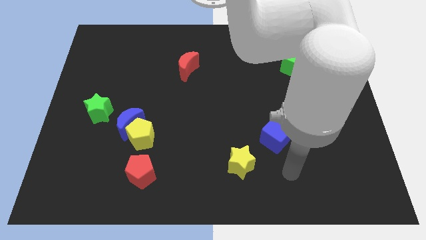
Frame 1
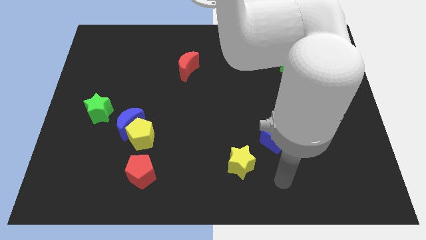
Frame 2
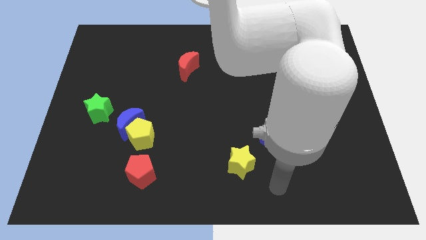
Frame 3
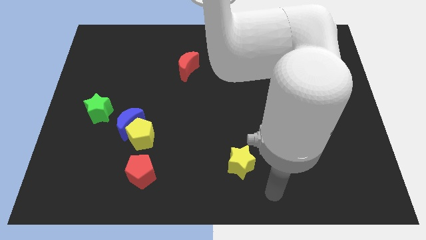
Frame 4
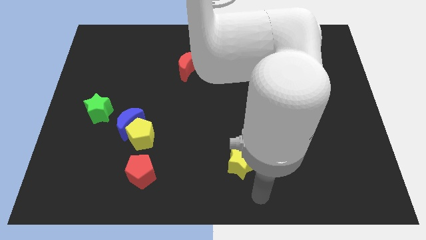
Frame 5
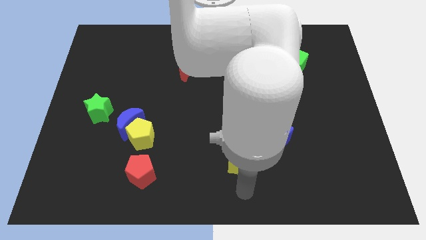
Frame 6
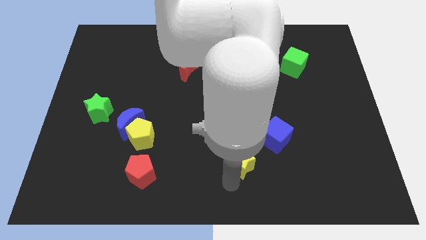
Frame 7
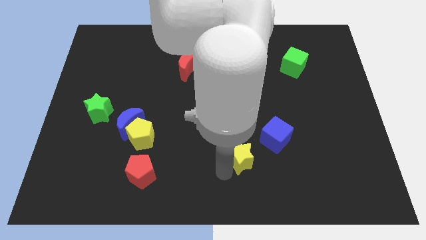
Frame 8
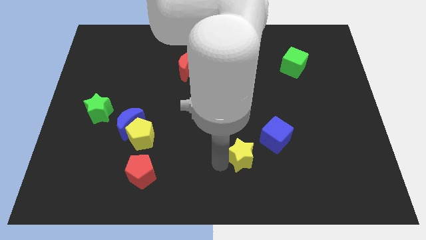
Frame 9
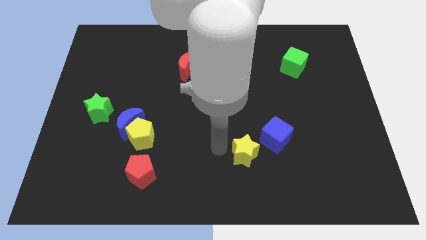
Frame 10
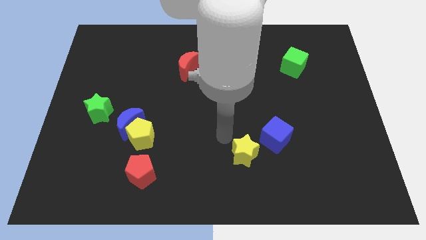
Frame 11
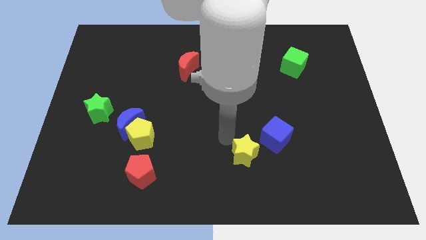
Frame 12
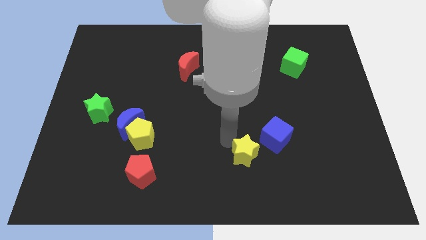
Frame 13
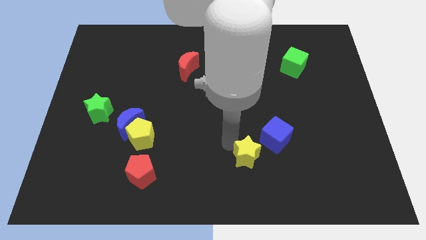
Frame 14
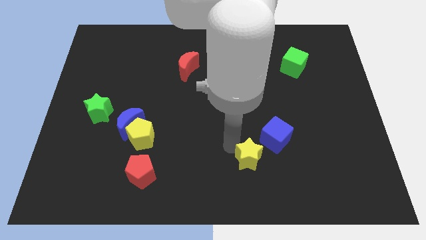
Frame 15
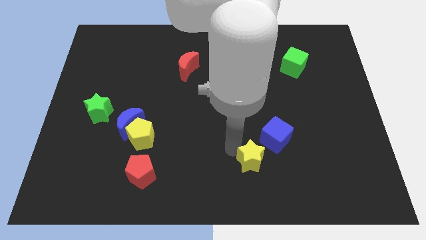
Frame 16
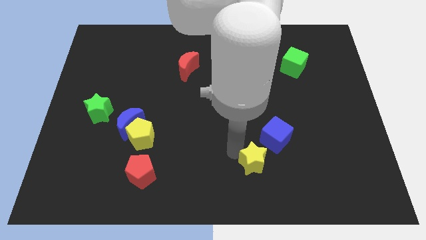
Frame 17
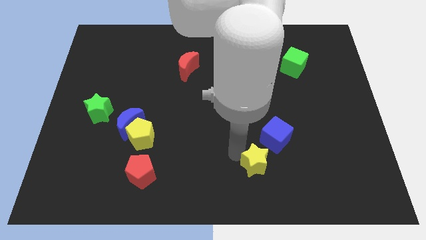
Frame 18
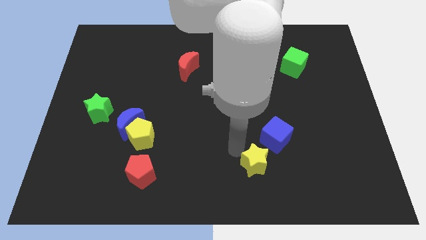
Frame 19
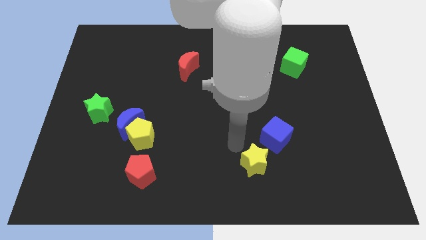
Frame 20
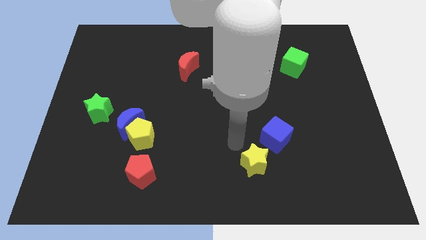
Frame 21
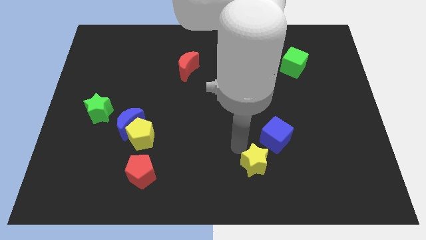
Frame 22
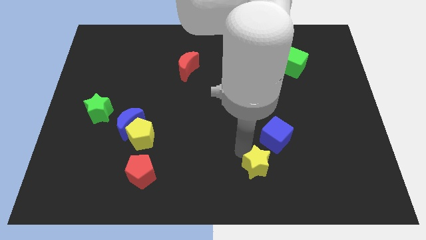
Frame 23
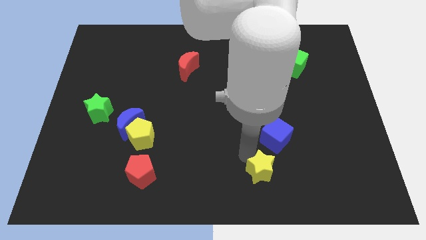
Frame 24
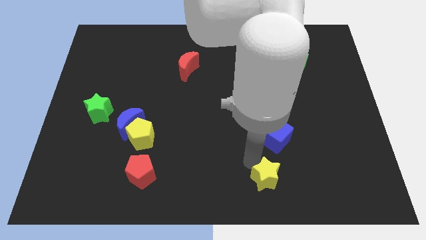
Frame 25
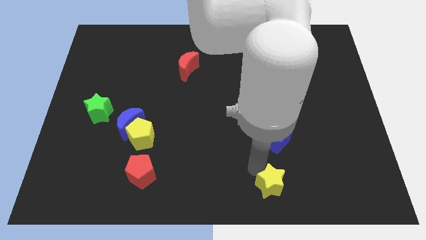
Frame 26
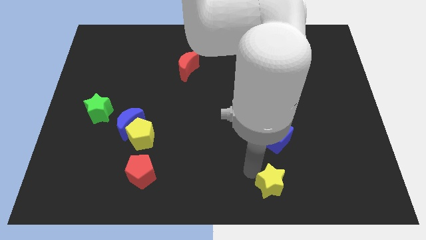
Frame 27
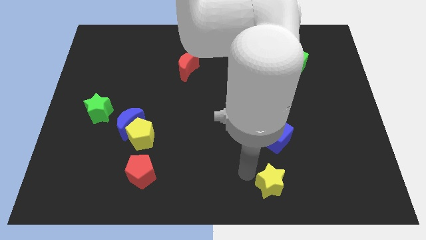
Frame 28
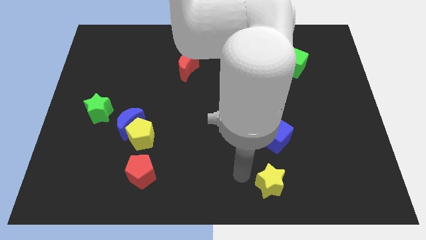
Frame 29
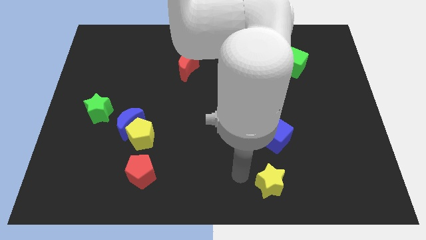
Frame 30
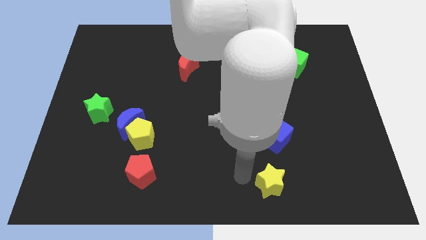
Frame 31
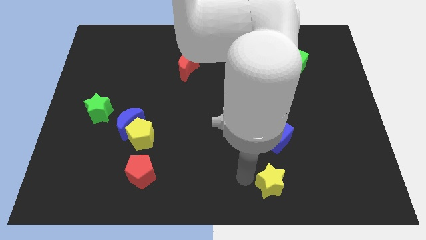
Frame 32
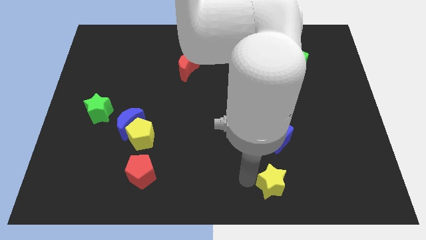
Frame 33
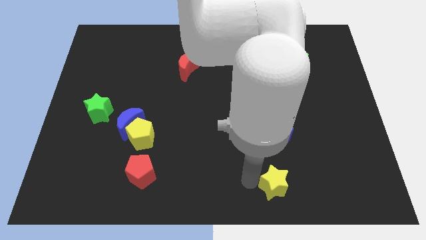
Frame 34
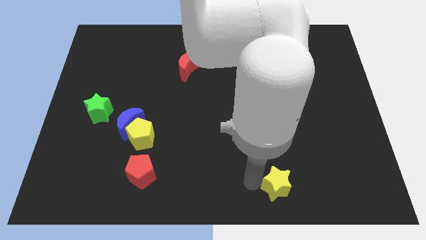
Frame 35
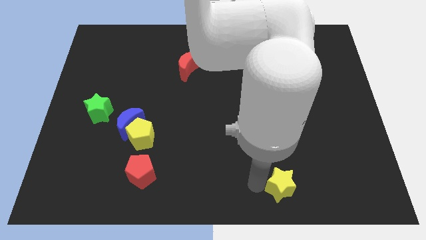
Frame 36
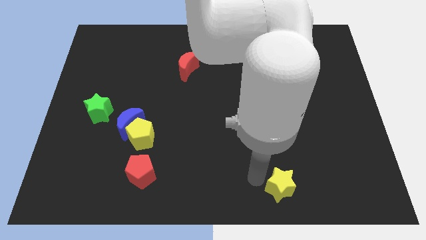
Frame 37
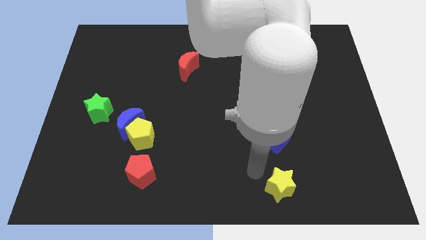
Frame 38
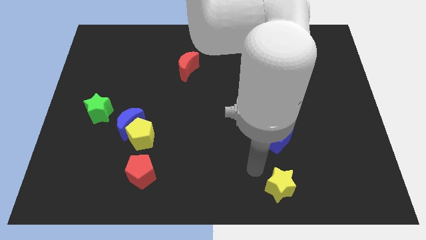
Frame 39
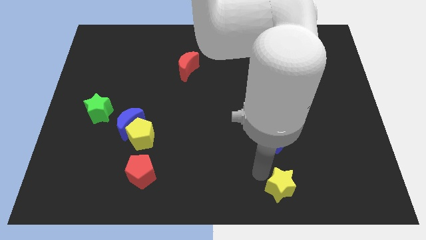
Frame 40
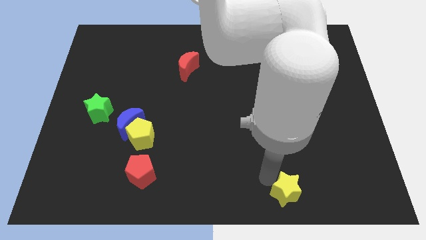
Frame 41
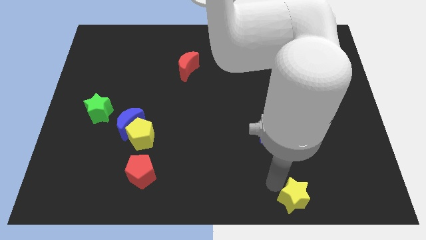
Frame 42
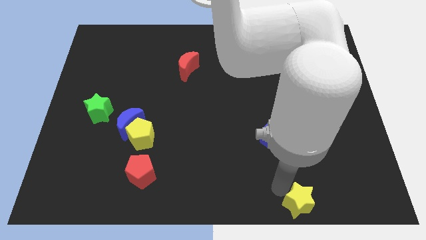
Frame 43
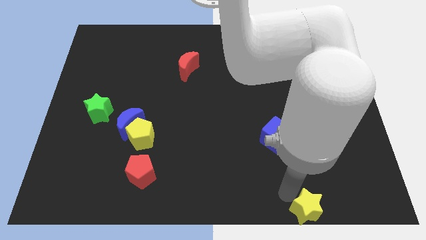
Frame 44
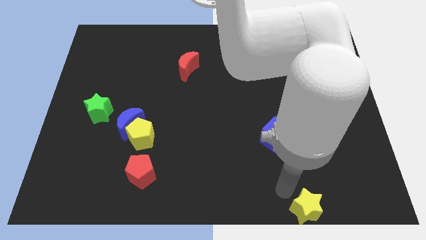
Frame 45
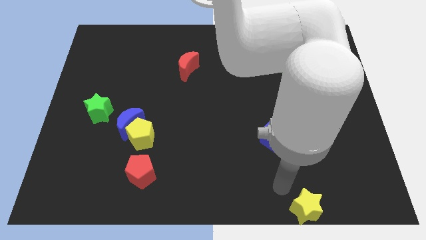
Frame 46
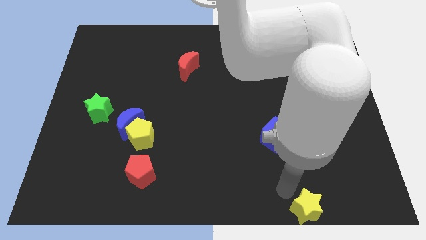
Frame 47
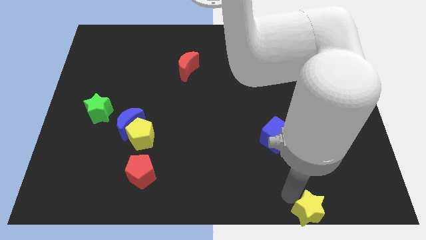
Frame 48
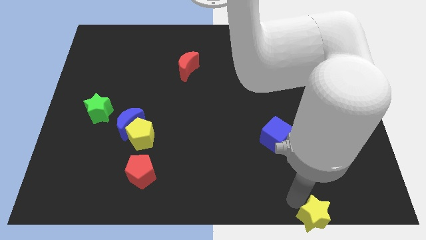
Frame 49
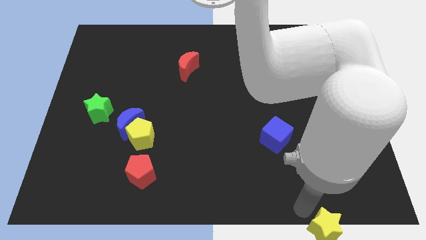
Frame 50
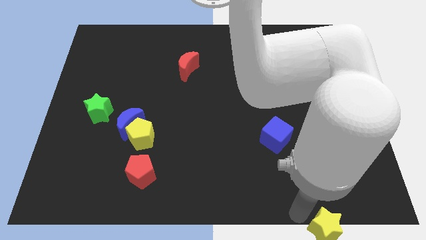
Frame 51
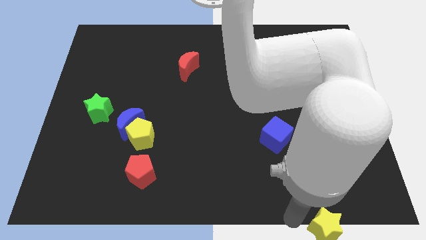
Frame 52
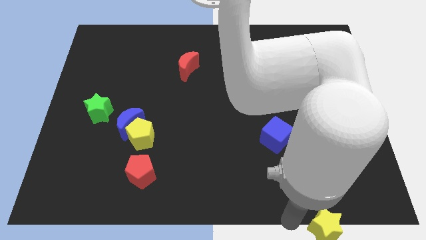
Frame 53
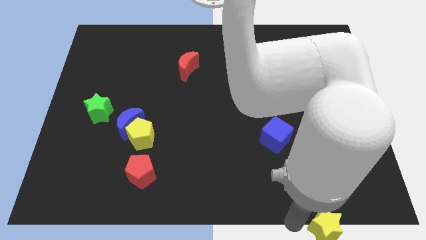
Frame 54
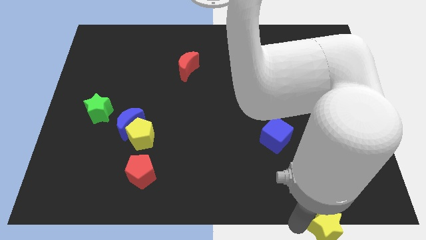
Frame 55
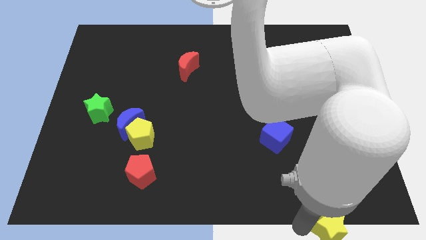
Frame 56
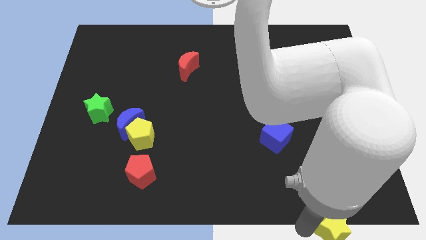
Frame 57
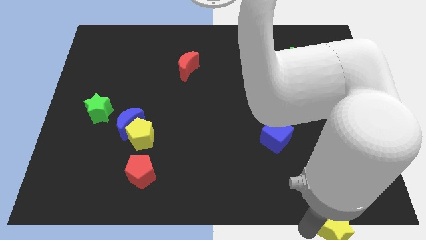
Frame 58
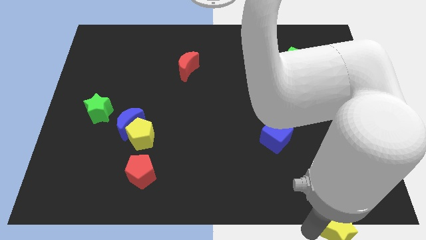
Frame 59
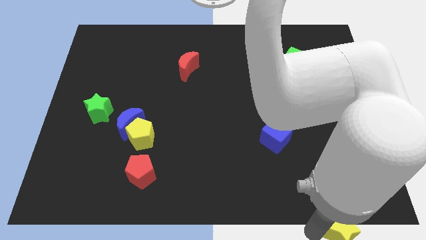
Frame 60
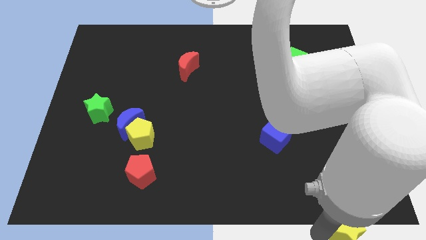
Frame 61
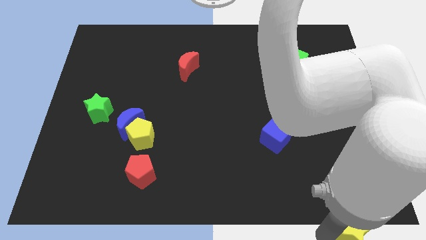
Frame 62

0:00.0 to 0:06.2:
put the yellow star to the bottom right of the board
